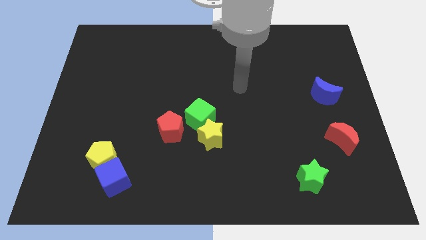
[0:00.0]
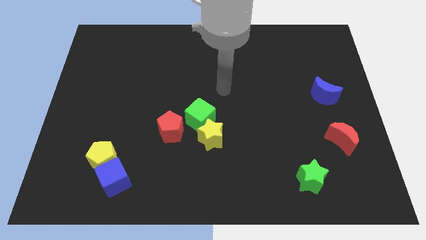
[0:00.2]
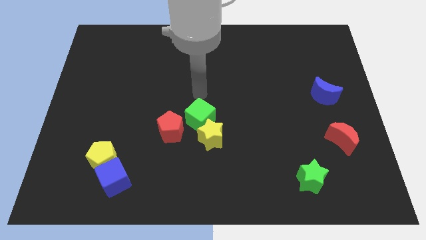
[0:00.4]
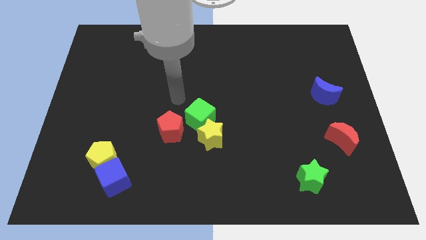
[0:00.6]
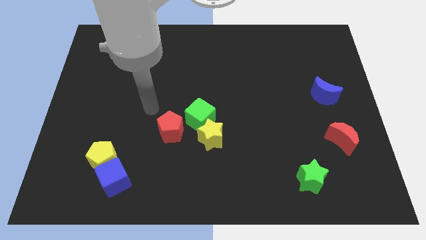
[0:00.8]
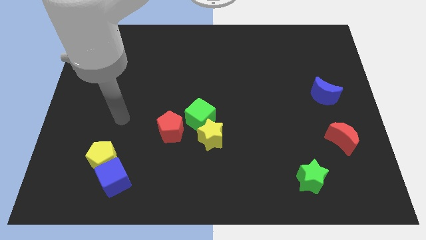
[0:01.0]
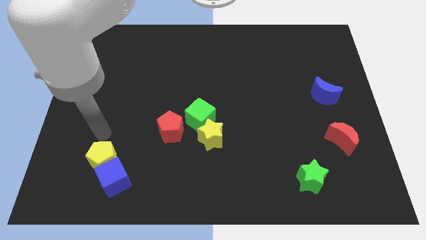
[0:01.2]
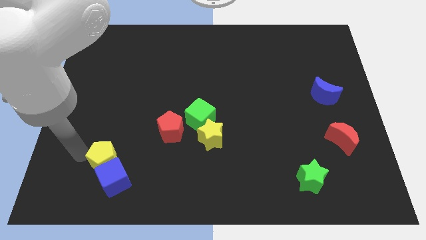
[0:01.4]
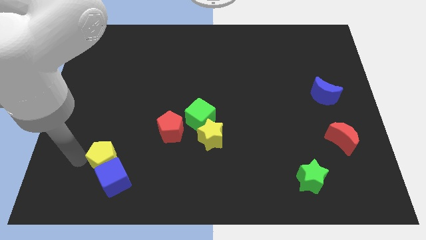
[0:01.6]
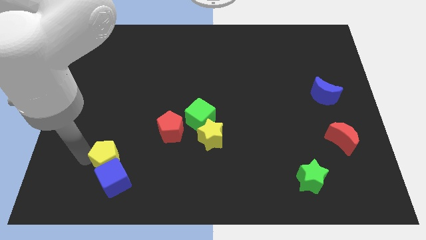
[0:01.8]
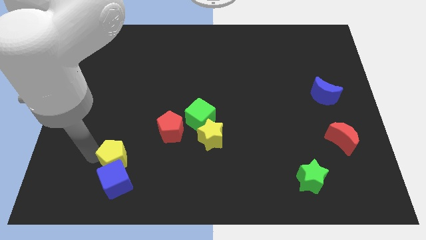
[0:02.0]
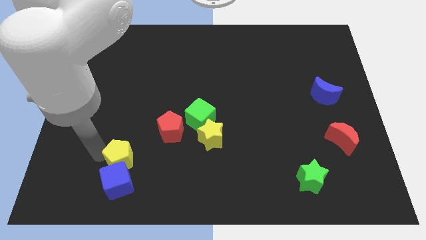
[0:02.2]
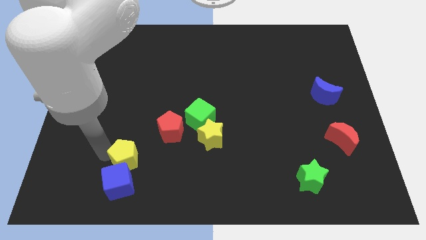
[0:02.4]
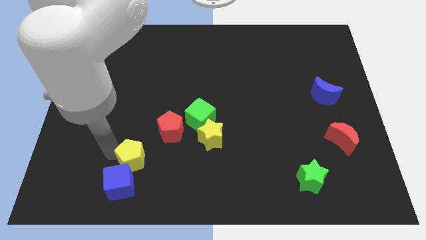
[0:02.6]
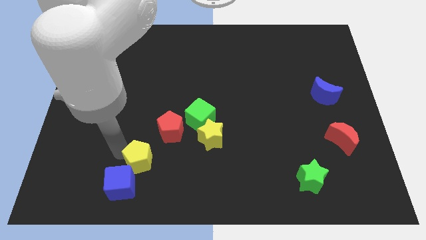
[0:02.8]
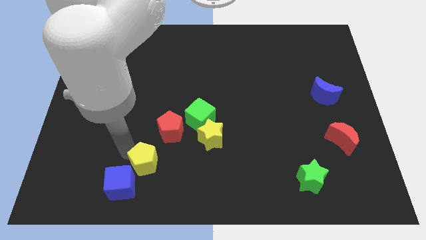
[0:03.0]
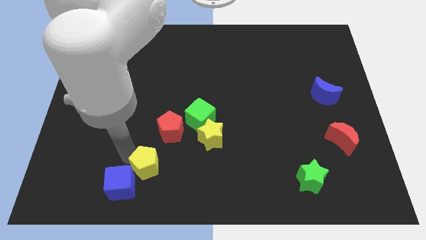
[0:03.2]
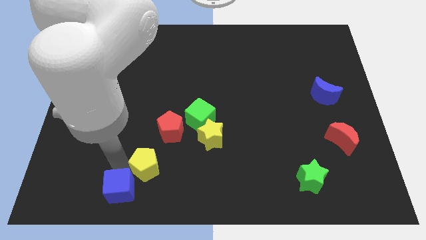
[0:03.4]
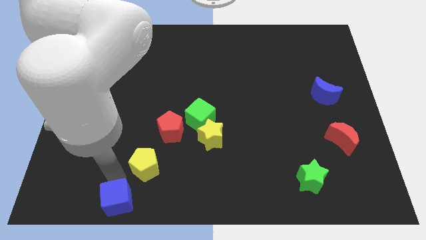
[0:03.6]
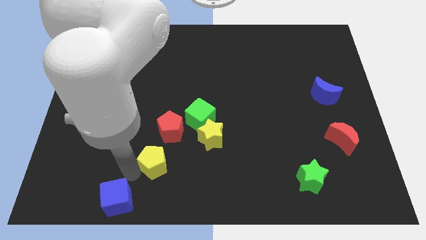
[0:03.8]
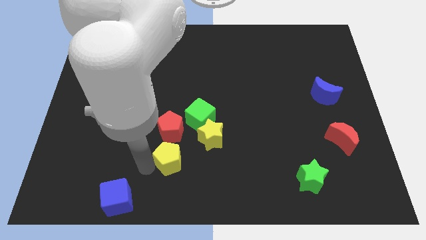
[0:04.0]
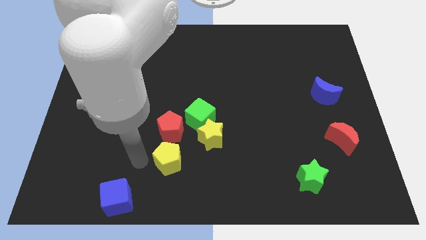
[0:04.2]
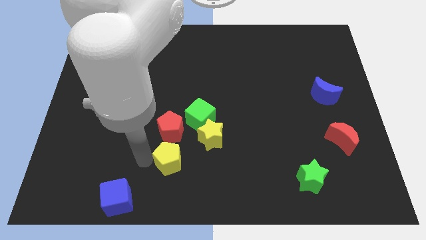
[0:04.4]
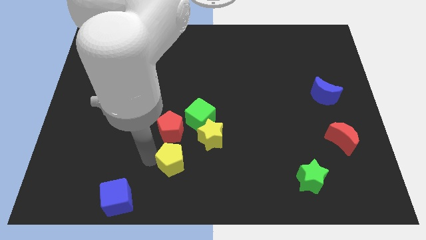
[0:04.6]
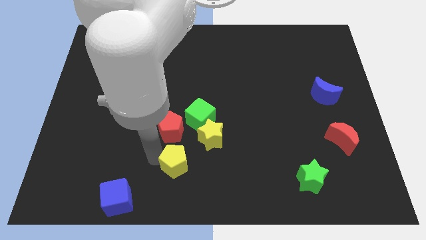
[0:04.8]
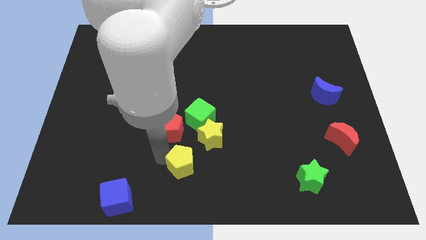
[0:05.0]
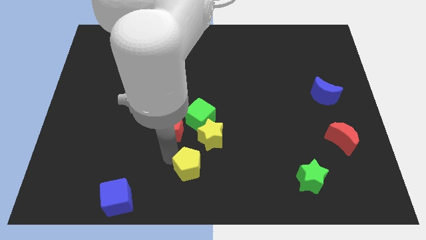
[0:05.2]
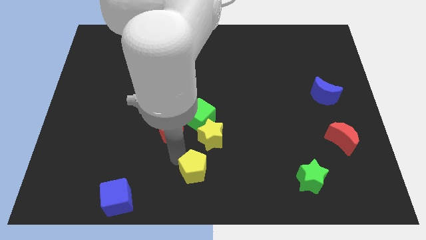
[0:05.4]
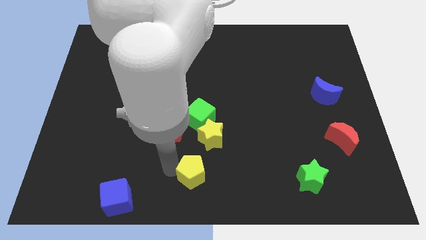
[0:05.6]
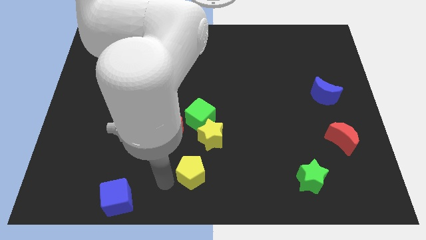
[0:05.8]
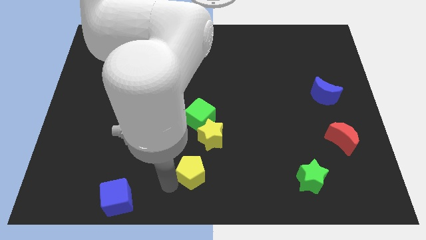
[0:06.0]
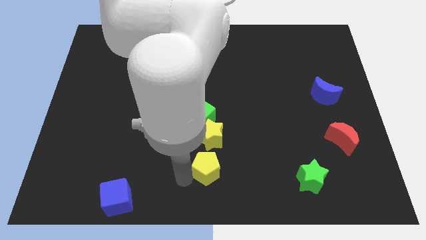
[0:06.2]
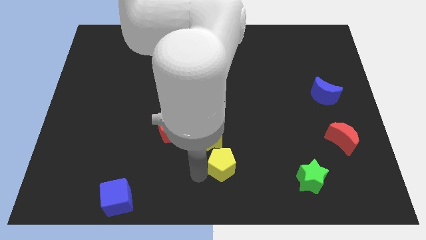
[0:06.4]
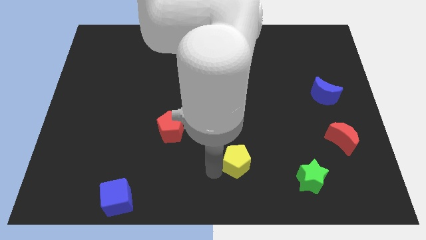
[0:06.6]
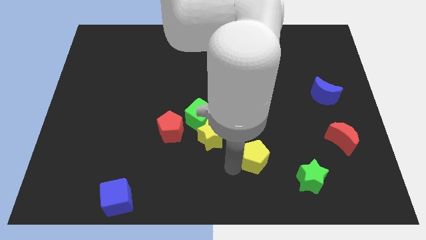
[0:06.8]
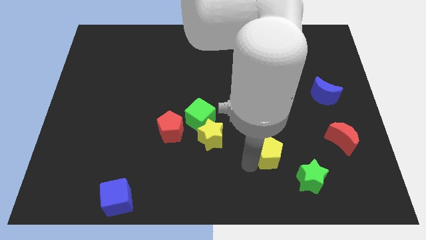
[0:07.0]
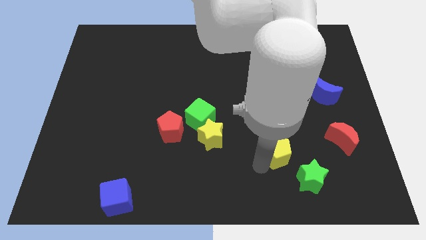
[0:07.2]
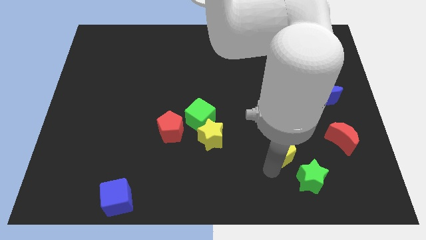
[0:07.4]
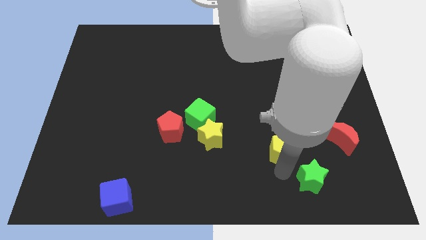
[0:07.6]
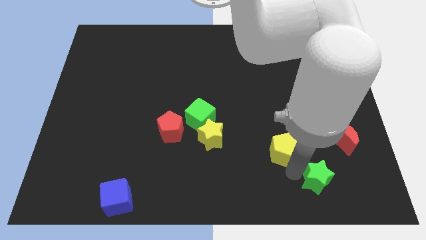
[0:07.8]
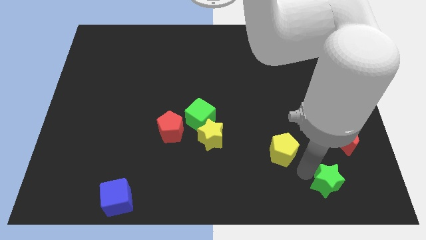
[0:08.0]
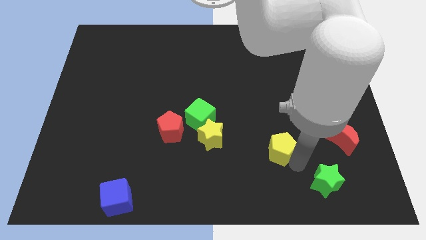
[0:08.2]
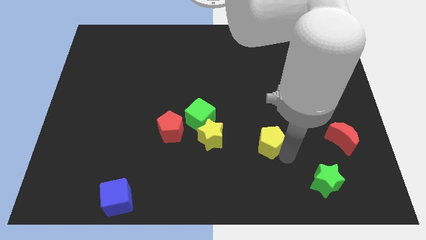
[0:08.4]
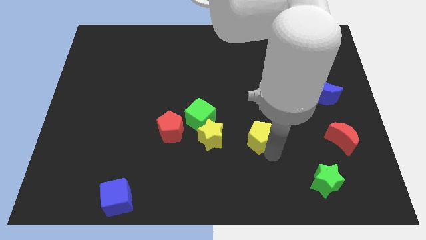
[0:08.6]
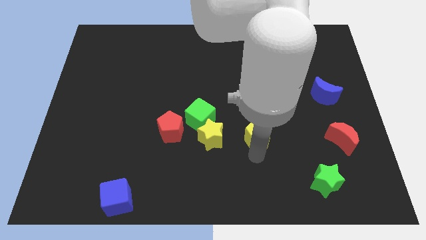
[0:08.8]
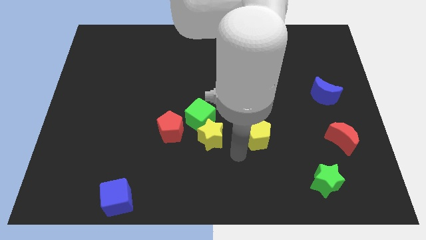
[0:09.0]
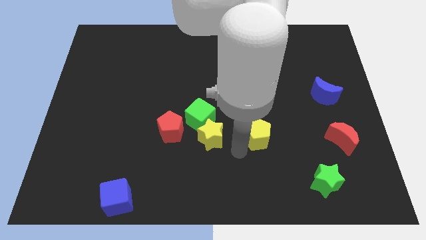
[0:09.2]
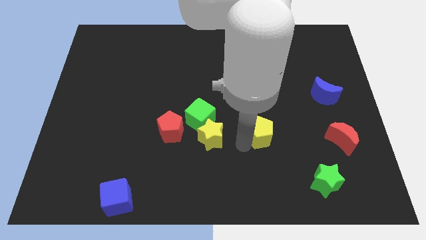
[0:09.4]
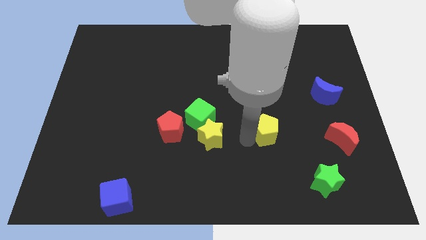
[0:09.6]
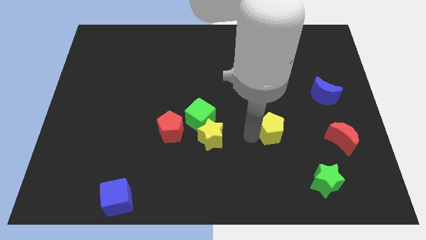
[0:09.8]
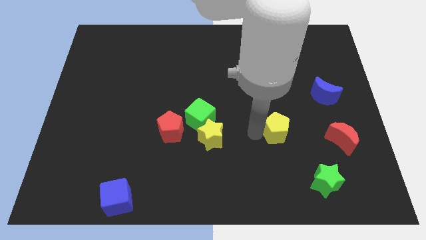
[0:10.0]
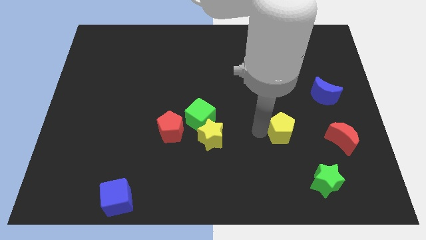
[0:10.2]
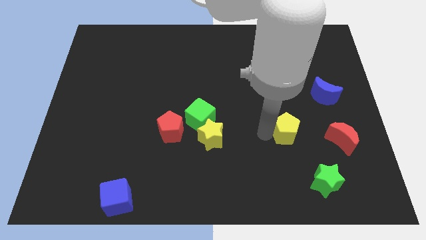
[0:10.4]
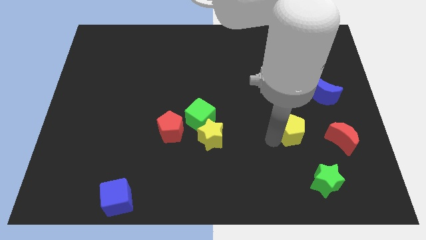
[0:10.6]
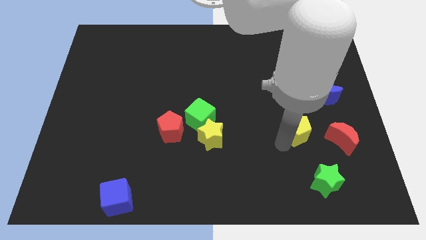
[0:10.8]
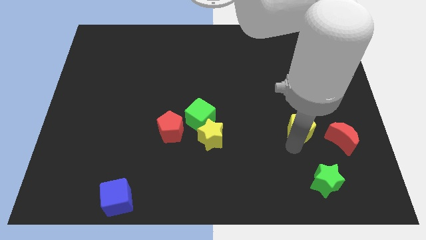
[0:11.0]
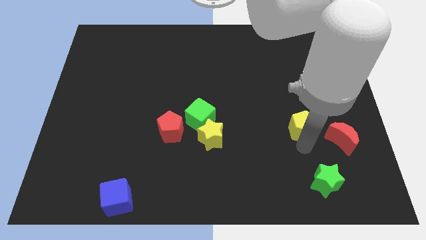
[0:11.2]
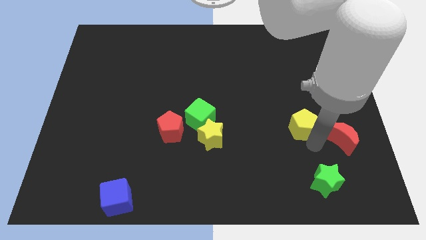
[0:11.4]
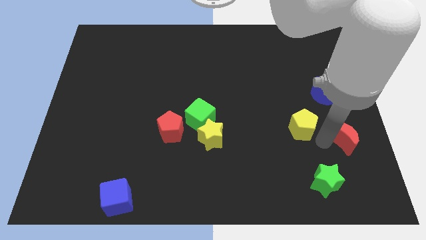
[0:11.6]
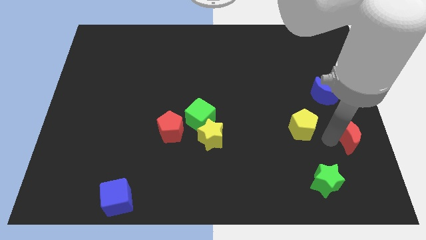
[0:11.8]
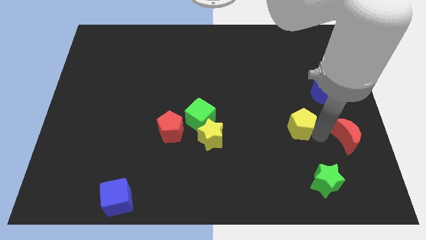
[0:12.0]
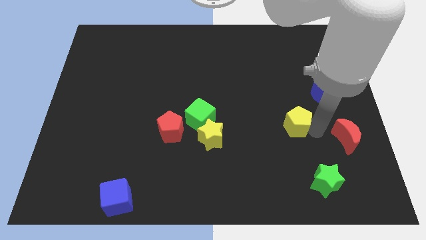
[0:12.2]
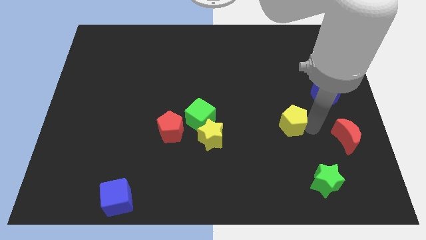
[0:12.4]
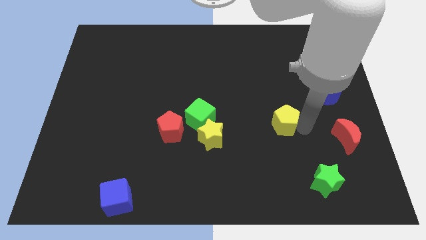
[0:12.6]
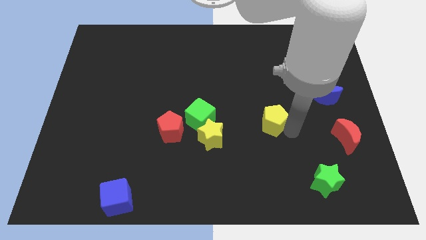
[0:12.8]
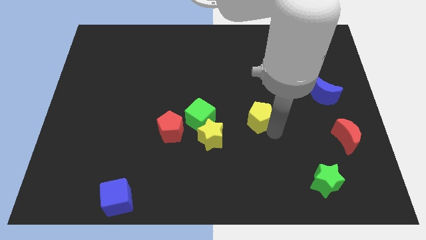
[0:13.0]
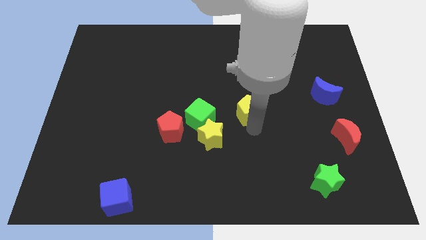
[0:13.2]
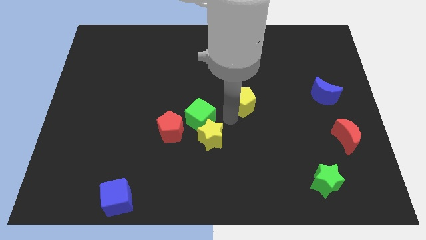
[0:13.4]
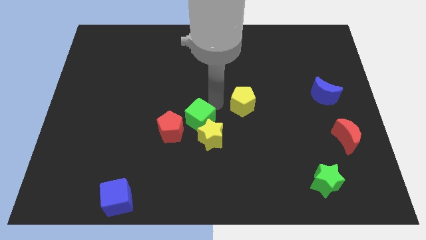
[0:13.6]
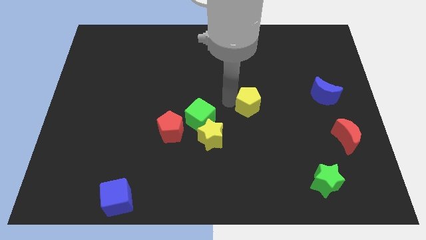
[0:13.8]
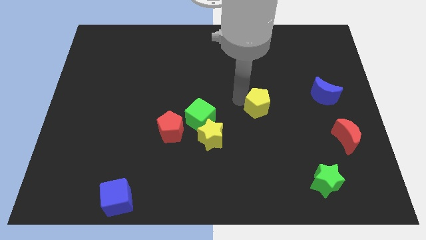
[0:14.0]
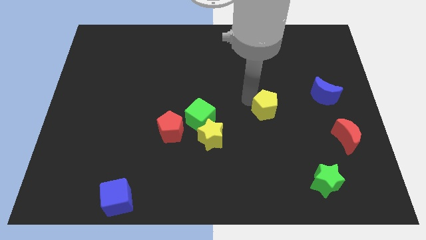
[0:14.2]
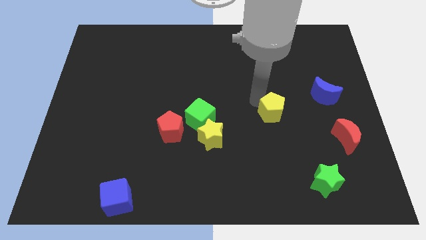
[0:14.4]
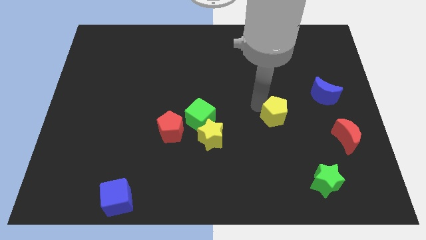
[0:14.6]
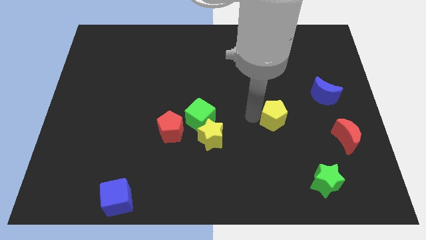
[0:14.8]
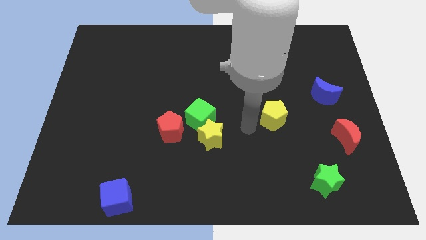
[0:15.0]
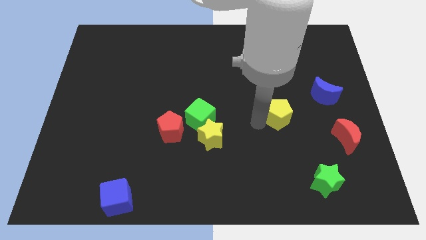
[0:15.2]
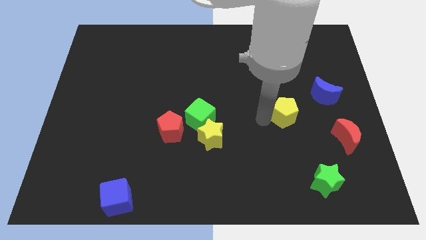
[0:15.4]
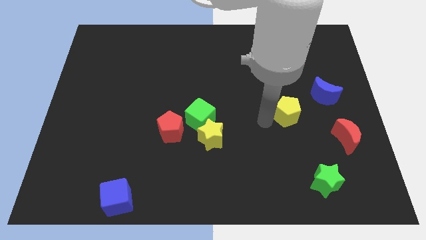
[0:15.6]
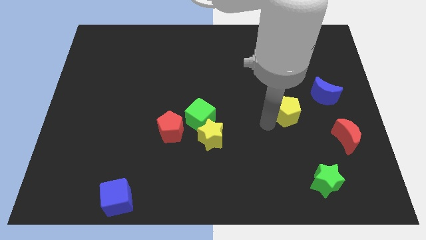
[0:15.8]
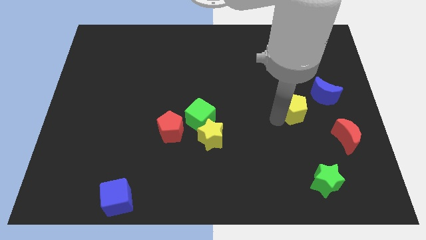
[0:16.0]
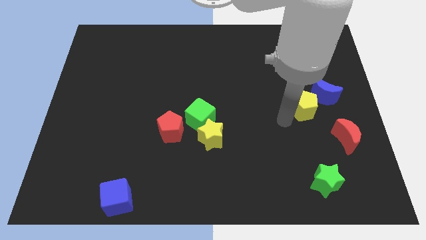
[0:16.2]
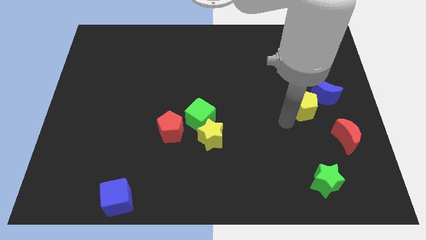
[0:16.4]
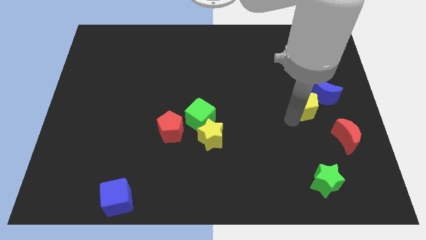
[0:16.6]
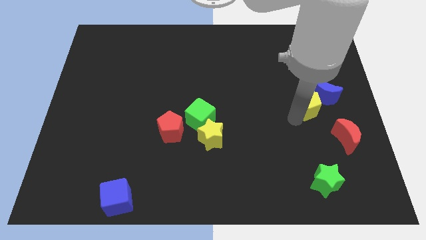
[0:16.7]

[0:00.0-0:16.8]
push the yellow pentagon towards the blue moon
